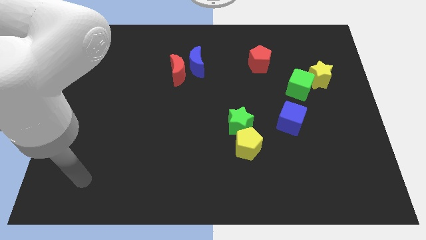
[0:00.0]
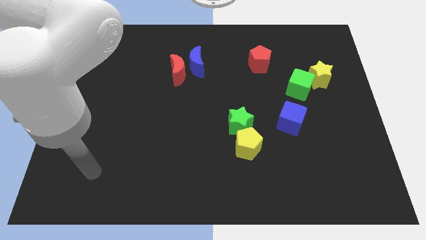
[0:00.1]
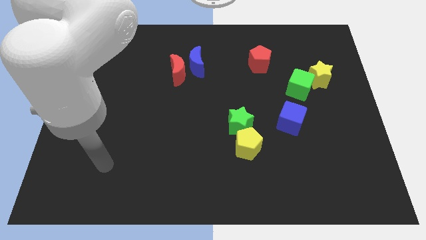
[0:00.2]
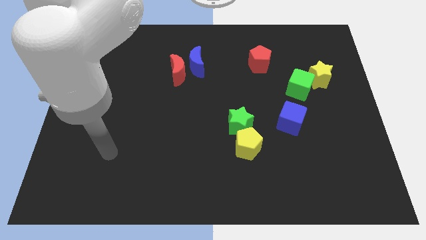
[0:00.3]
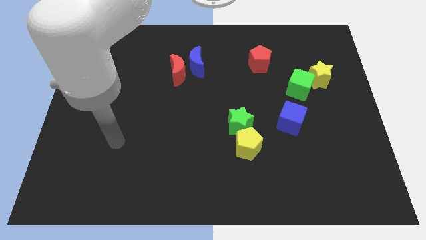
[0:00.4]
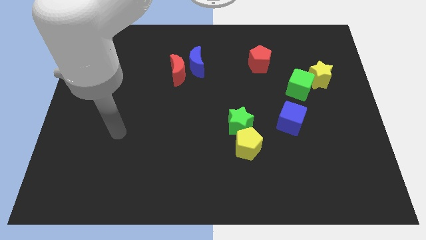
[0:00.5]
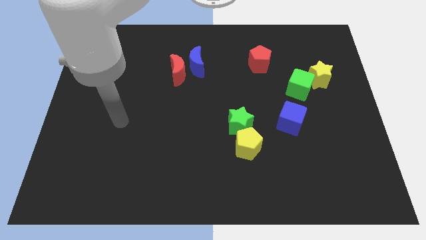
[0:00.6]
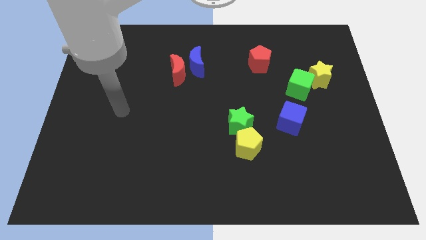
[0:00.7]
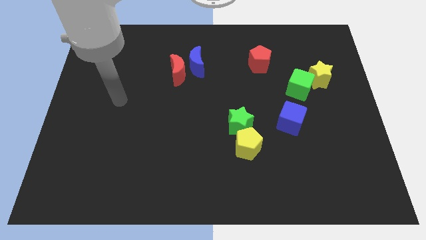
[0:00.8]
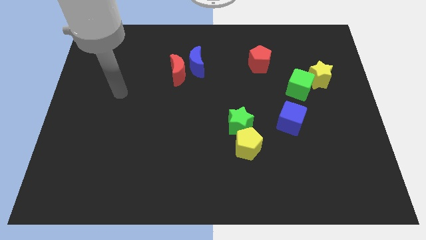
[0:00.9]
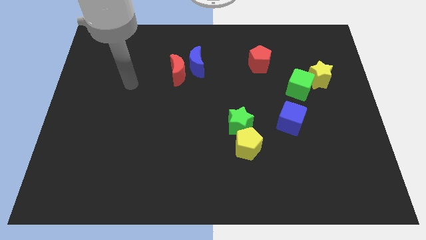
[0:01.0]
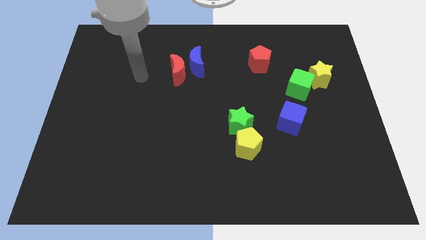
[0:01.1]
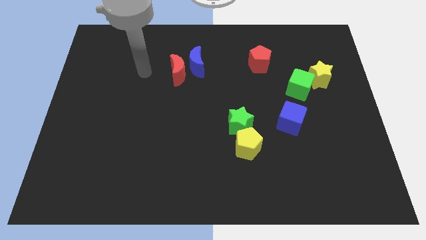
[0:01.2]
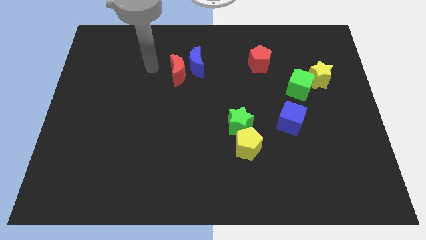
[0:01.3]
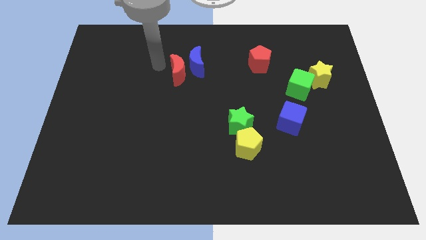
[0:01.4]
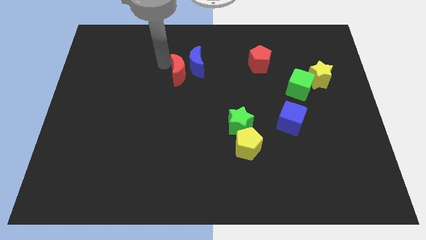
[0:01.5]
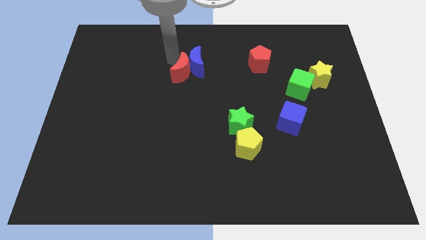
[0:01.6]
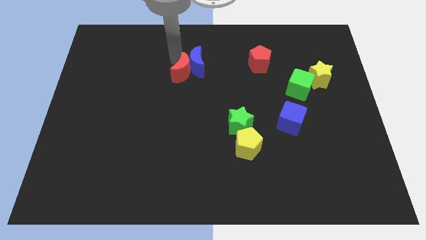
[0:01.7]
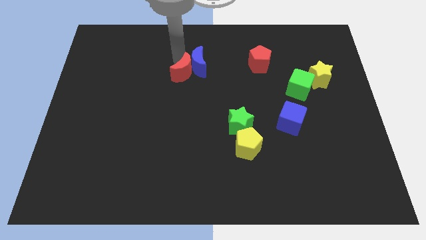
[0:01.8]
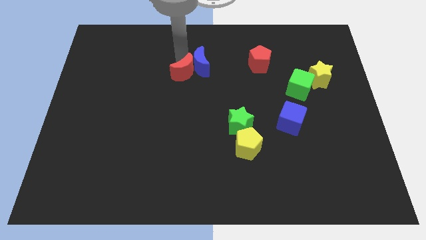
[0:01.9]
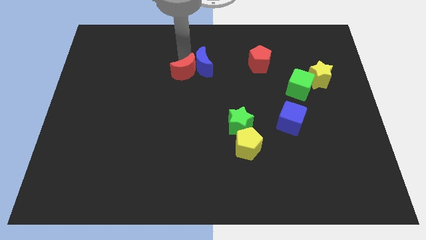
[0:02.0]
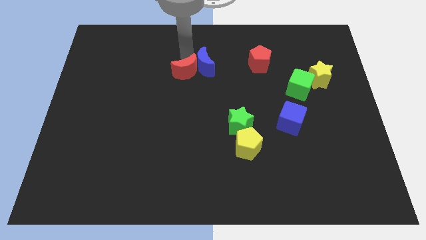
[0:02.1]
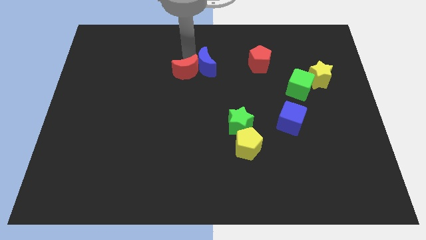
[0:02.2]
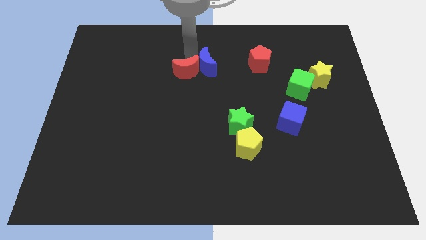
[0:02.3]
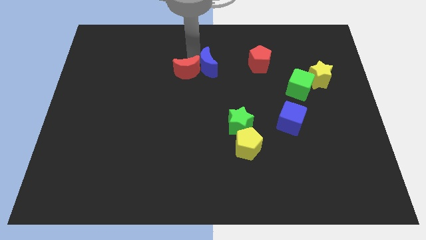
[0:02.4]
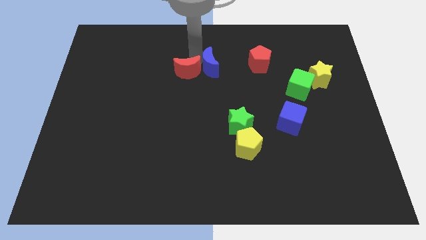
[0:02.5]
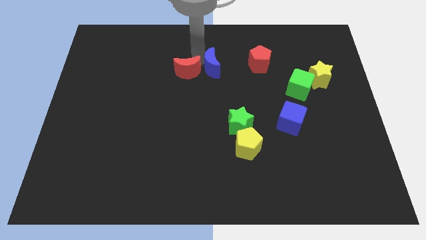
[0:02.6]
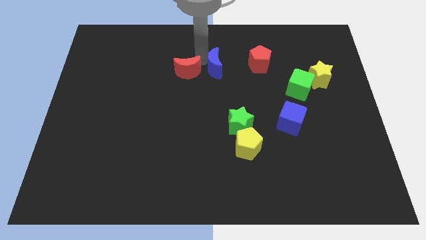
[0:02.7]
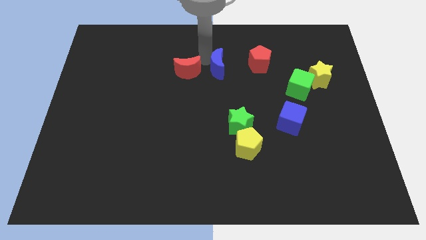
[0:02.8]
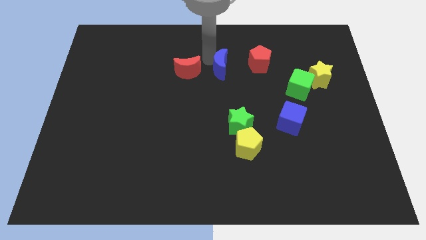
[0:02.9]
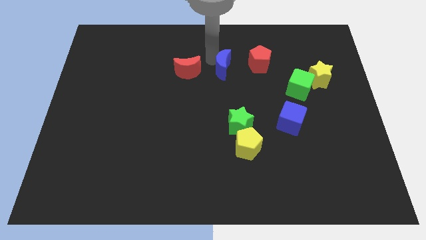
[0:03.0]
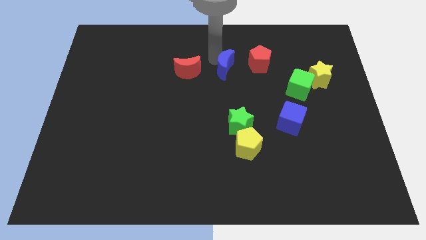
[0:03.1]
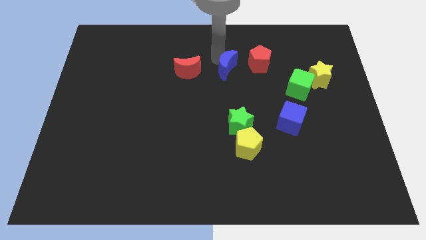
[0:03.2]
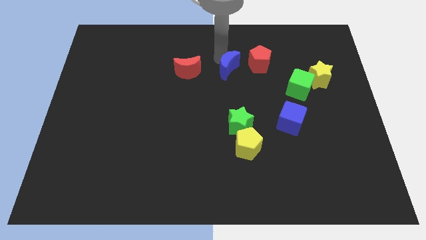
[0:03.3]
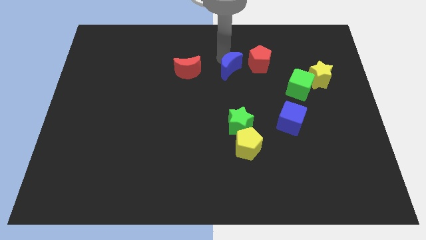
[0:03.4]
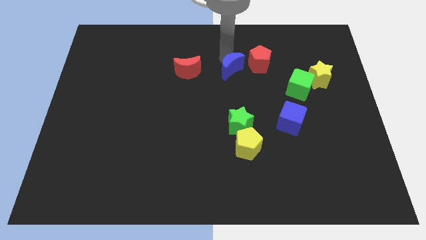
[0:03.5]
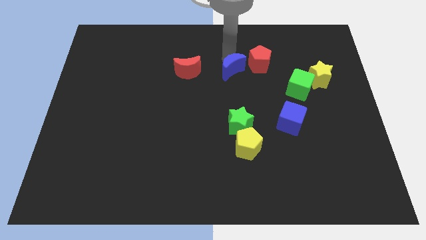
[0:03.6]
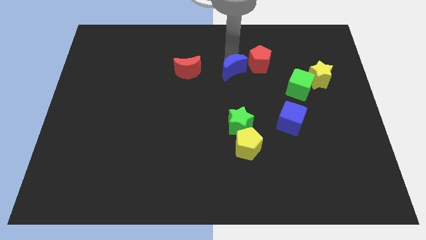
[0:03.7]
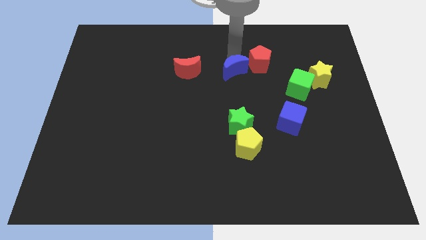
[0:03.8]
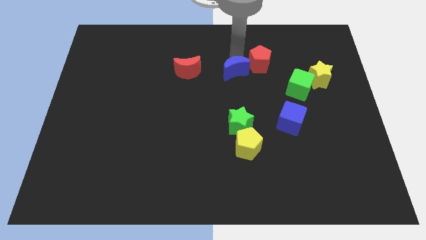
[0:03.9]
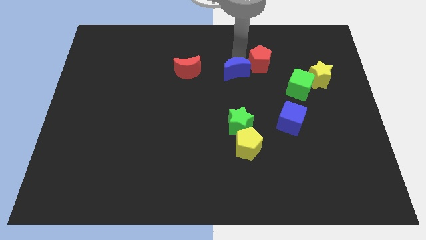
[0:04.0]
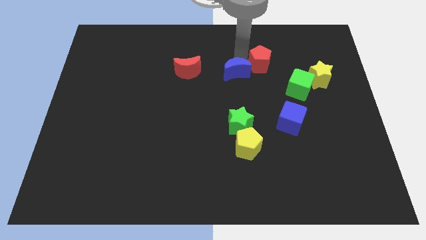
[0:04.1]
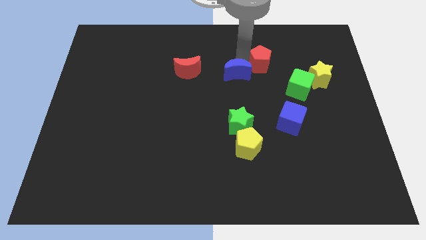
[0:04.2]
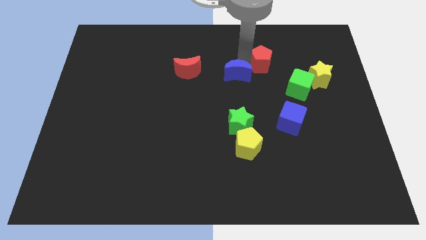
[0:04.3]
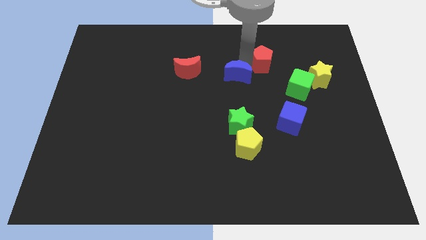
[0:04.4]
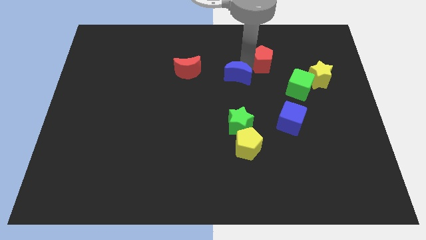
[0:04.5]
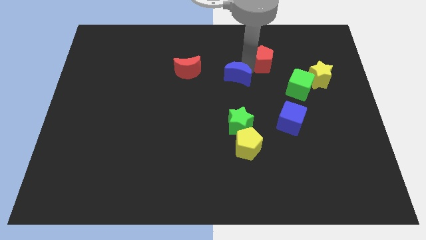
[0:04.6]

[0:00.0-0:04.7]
move the blue moon left of the green cube

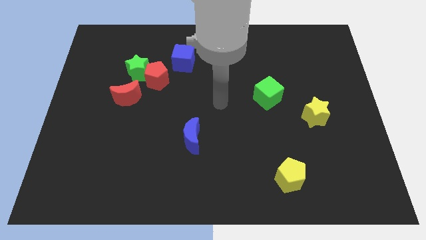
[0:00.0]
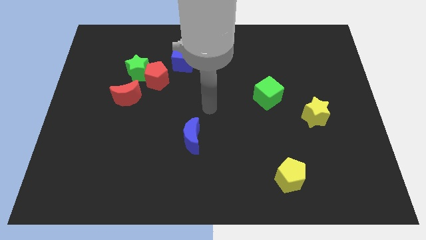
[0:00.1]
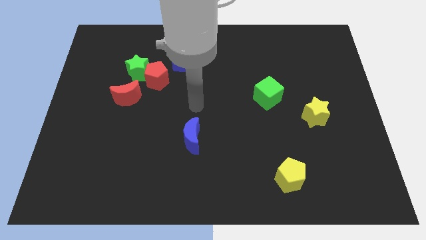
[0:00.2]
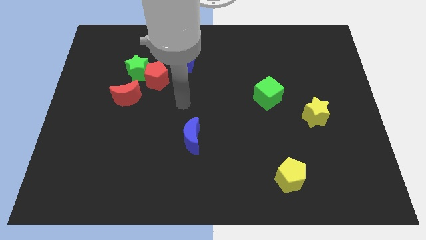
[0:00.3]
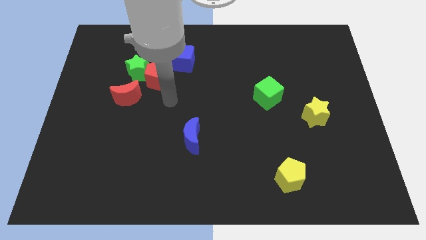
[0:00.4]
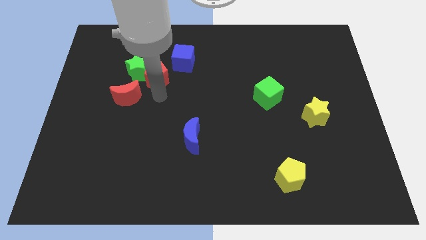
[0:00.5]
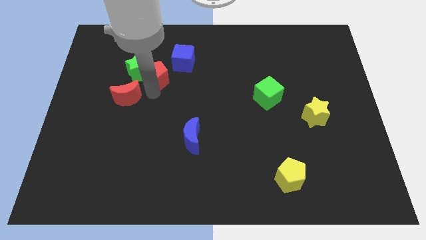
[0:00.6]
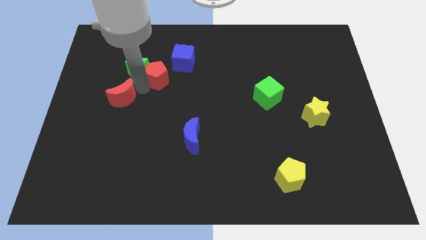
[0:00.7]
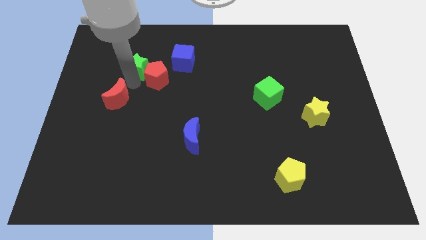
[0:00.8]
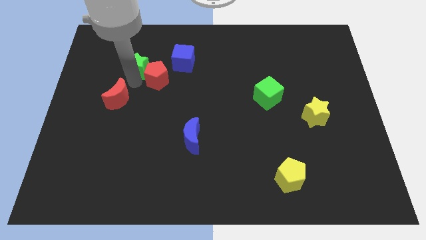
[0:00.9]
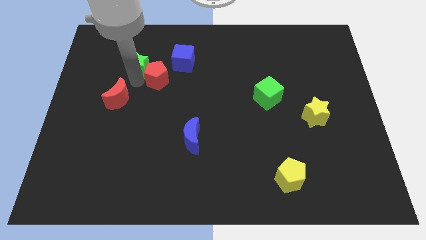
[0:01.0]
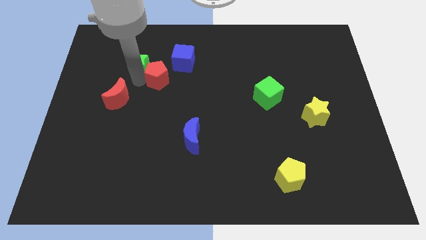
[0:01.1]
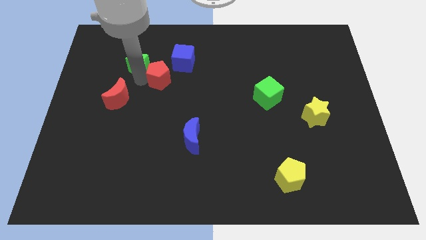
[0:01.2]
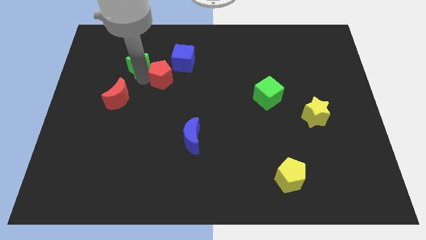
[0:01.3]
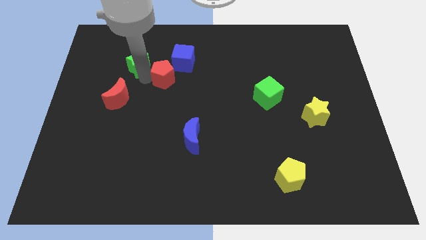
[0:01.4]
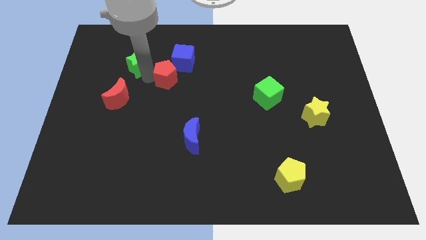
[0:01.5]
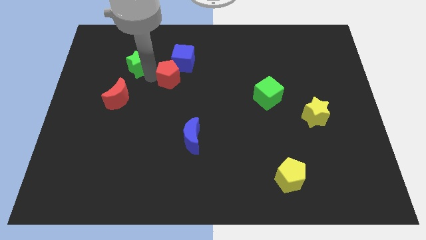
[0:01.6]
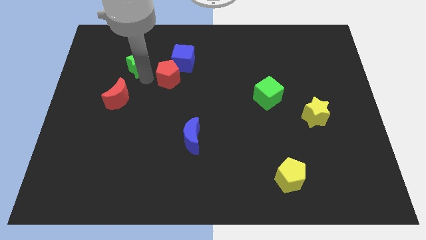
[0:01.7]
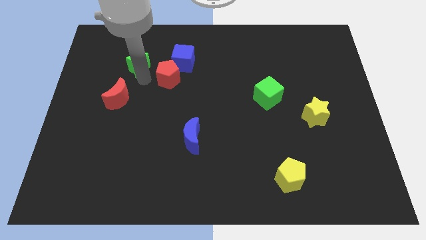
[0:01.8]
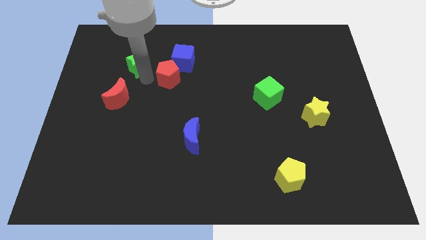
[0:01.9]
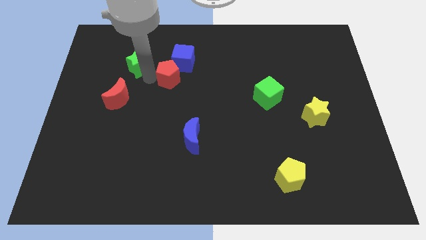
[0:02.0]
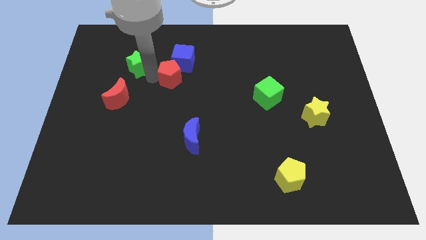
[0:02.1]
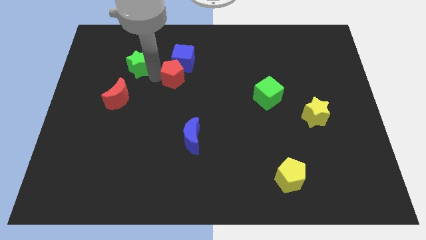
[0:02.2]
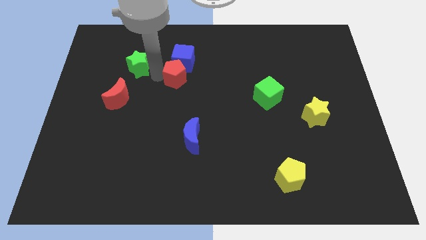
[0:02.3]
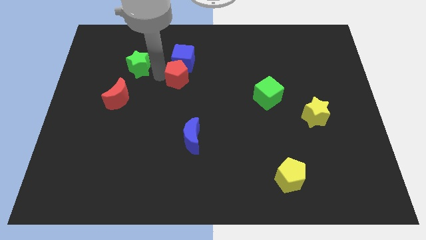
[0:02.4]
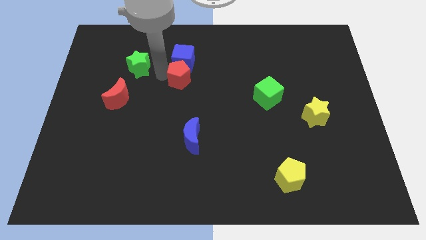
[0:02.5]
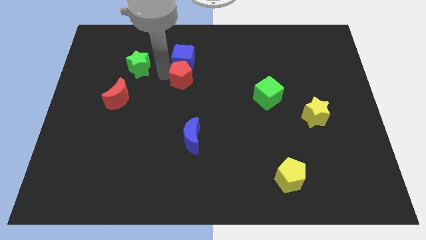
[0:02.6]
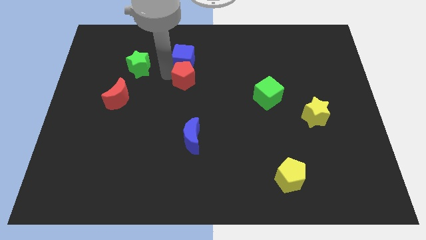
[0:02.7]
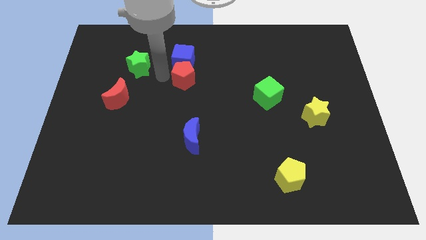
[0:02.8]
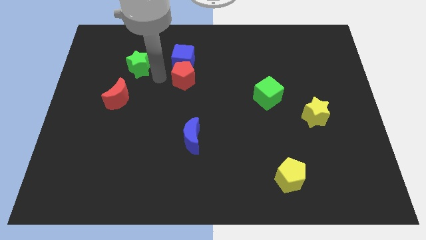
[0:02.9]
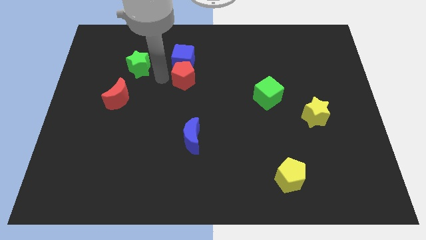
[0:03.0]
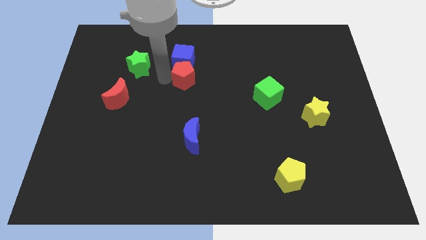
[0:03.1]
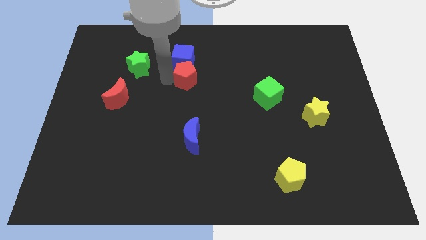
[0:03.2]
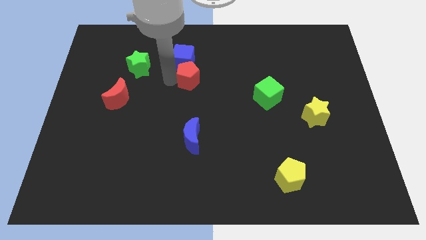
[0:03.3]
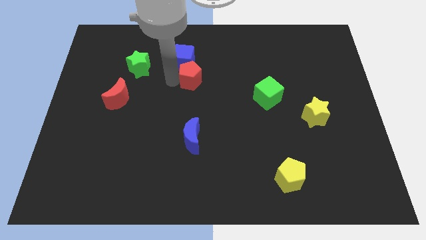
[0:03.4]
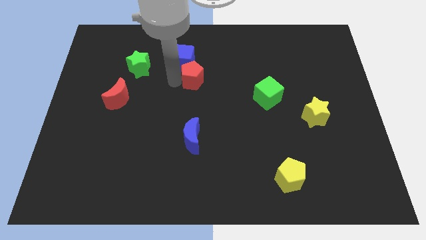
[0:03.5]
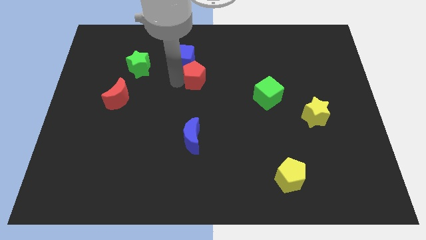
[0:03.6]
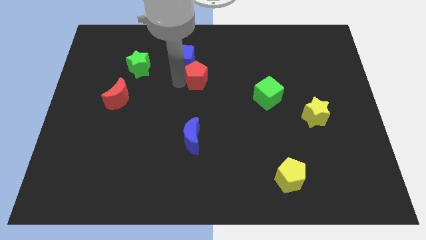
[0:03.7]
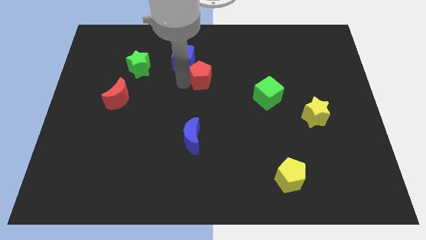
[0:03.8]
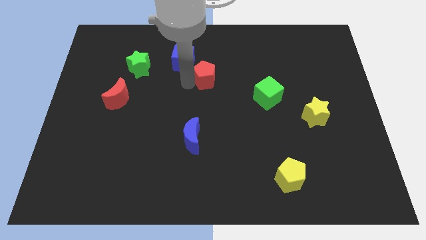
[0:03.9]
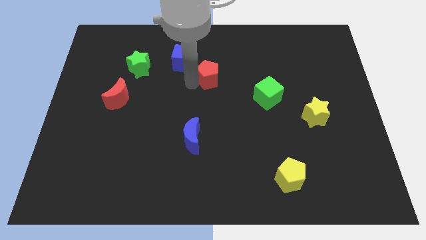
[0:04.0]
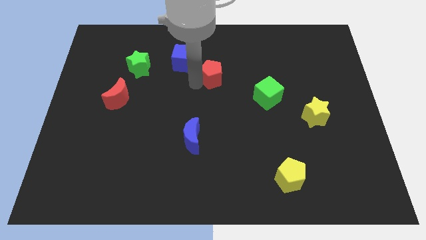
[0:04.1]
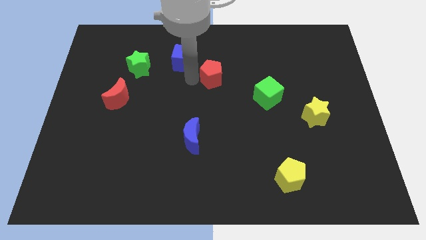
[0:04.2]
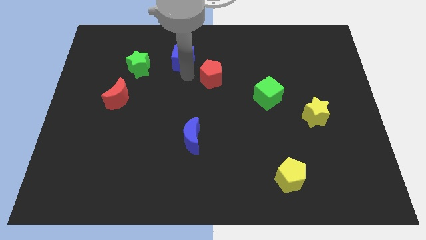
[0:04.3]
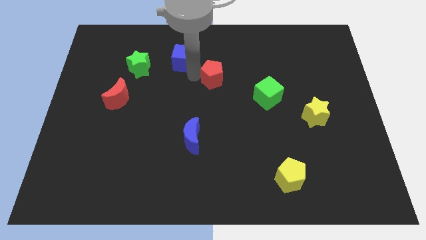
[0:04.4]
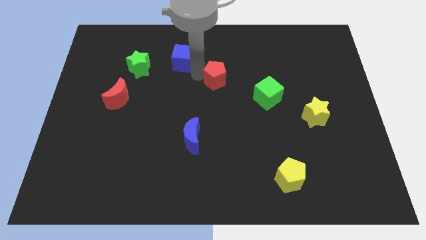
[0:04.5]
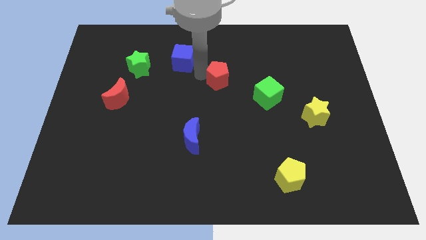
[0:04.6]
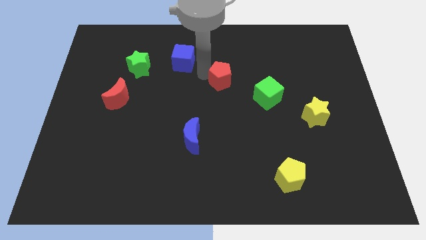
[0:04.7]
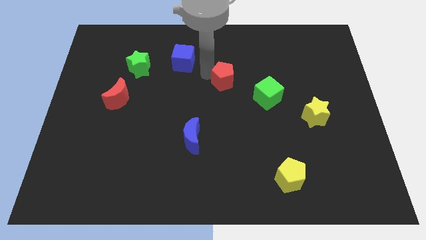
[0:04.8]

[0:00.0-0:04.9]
push the red pentagon to the top left side of the green cube
